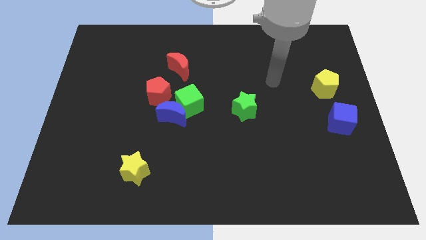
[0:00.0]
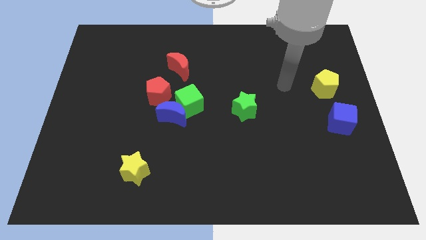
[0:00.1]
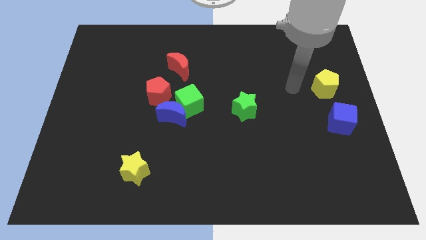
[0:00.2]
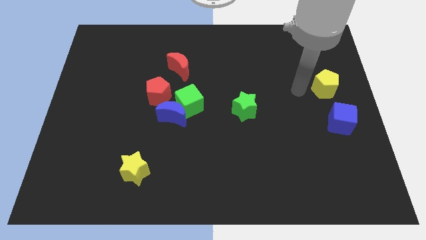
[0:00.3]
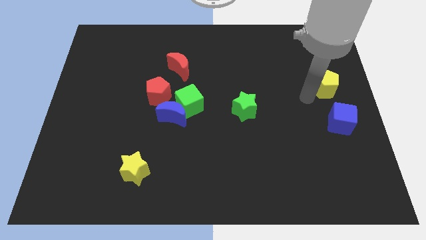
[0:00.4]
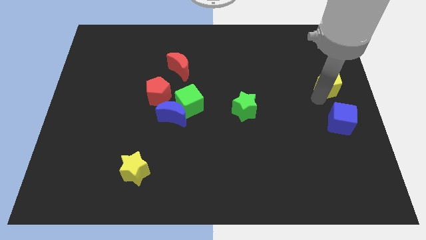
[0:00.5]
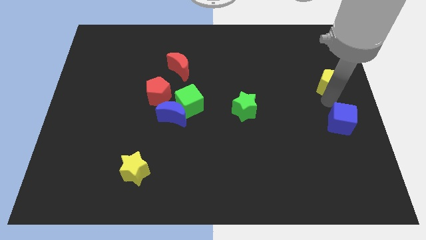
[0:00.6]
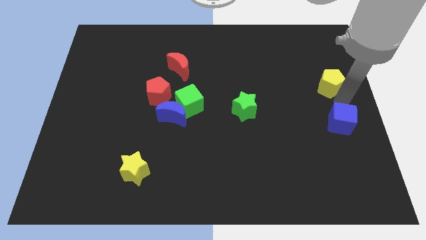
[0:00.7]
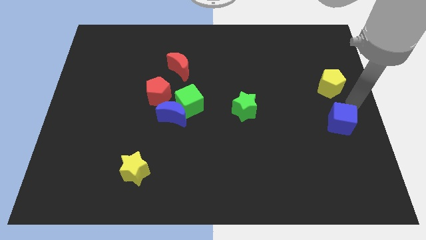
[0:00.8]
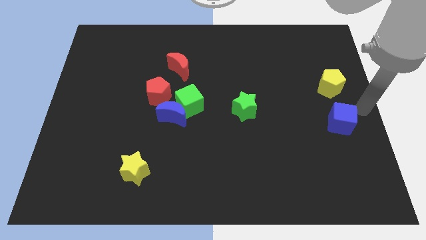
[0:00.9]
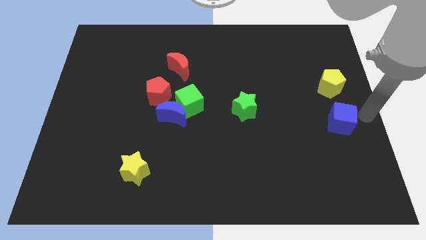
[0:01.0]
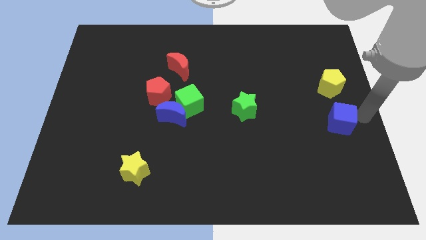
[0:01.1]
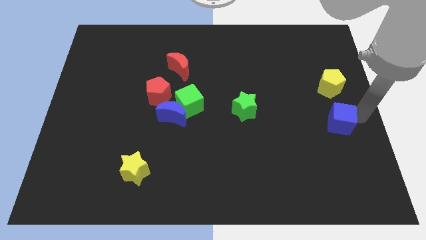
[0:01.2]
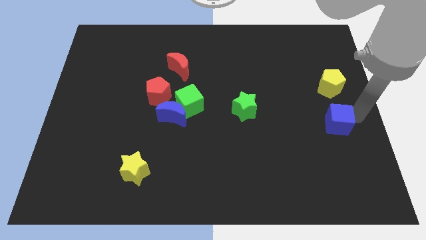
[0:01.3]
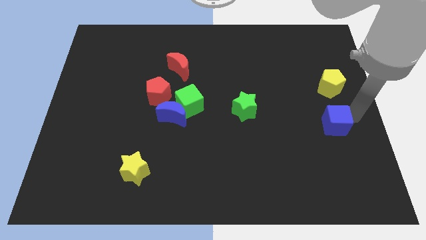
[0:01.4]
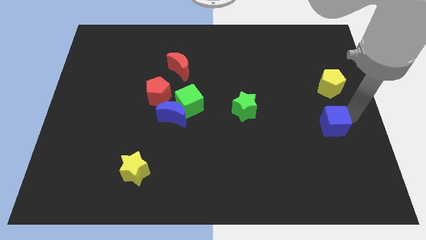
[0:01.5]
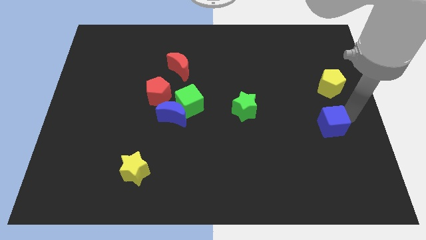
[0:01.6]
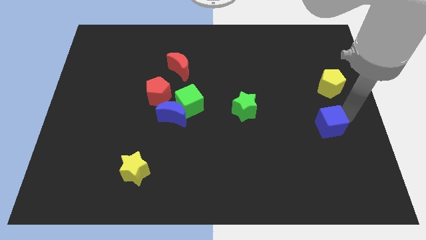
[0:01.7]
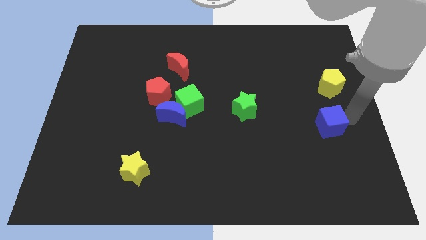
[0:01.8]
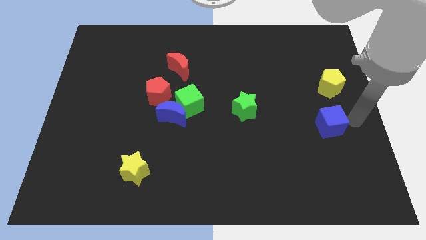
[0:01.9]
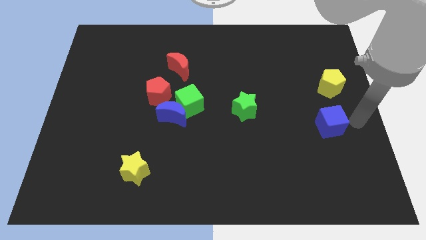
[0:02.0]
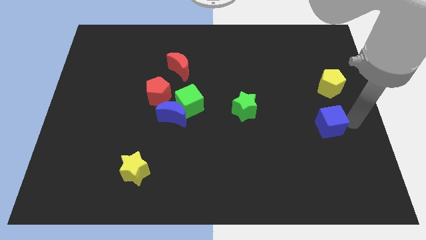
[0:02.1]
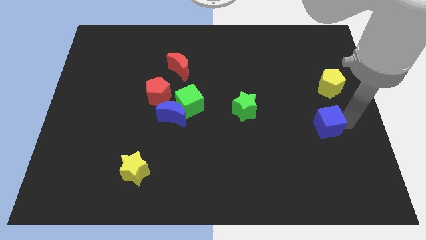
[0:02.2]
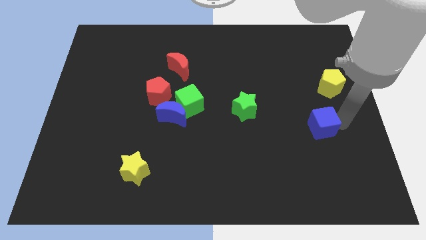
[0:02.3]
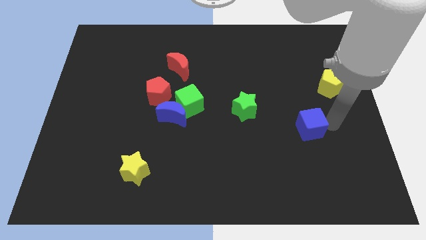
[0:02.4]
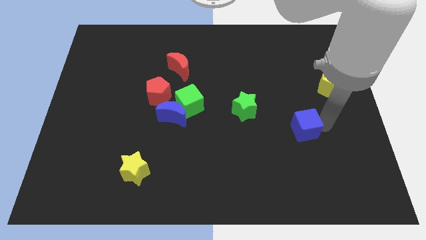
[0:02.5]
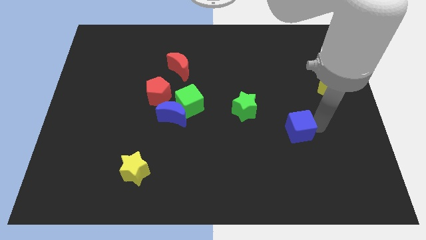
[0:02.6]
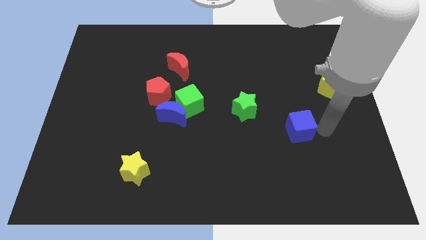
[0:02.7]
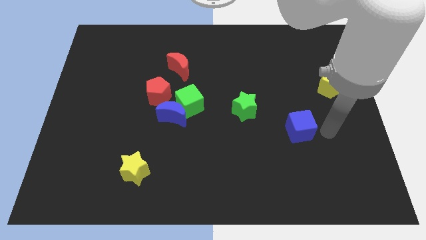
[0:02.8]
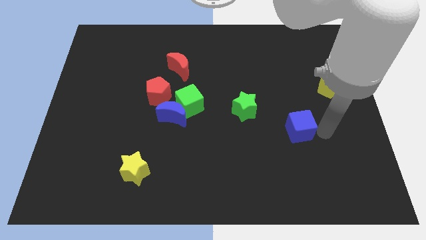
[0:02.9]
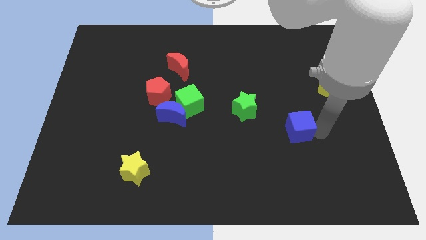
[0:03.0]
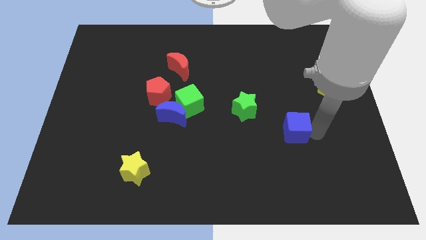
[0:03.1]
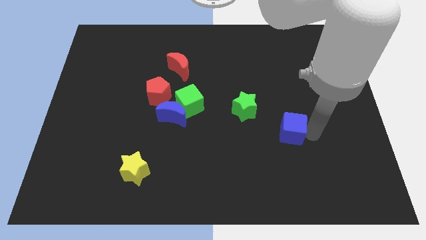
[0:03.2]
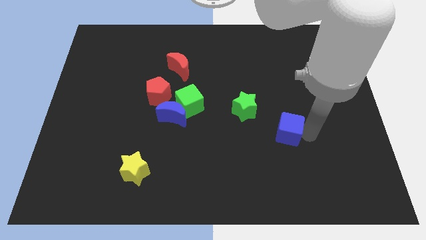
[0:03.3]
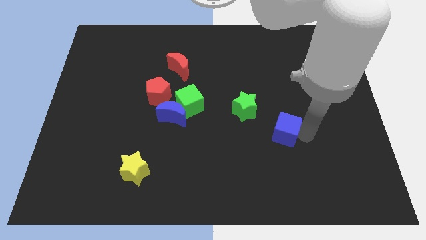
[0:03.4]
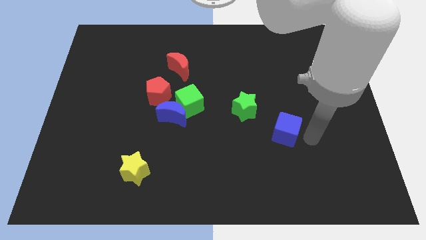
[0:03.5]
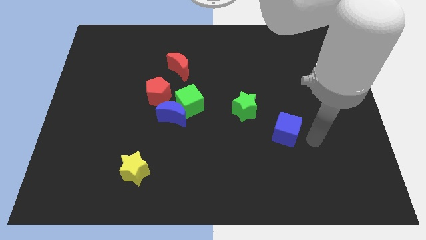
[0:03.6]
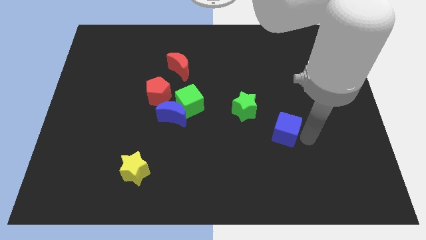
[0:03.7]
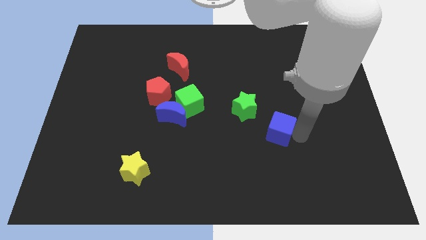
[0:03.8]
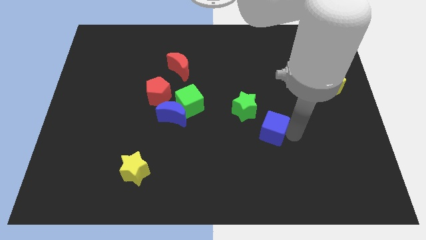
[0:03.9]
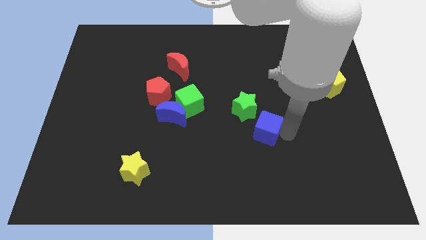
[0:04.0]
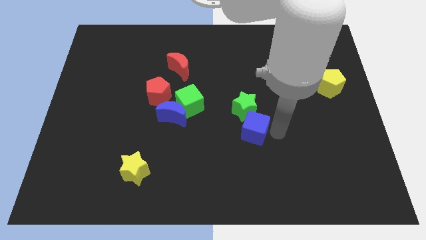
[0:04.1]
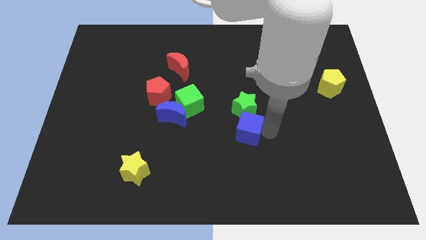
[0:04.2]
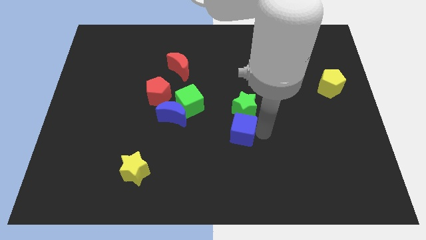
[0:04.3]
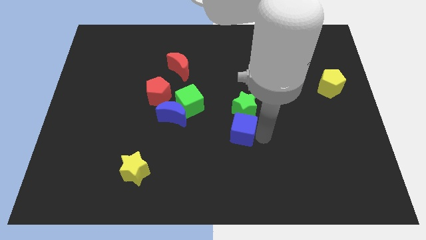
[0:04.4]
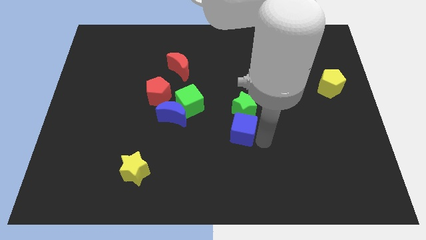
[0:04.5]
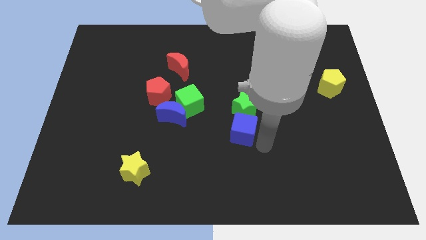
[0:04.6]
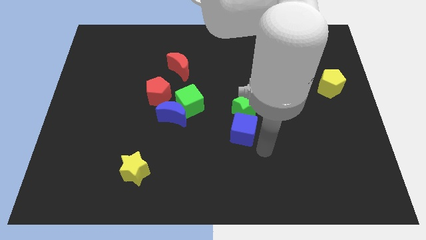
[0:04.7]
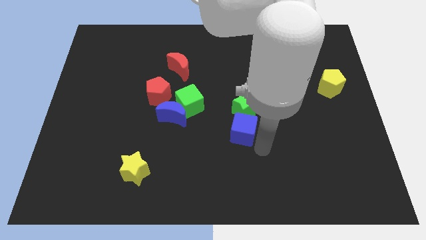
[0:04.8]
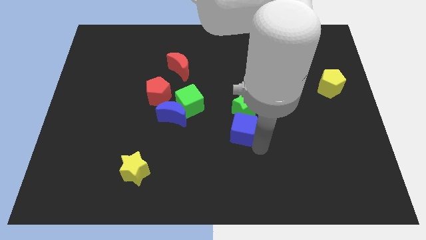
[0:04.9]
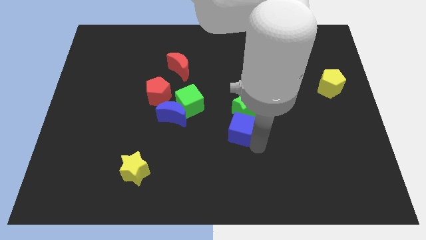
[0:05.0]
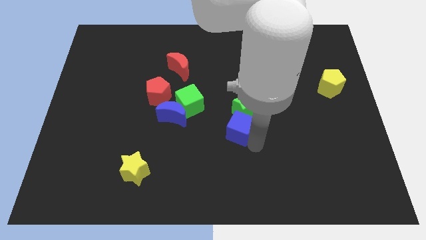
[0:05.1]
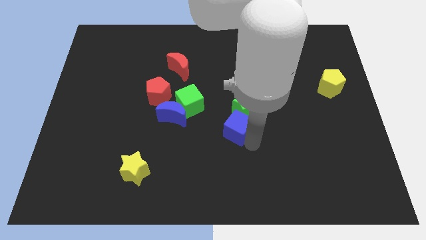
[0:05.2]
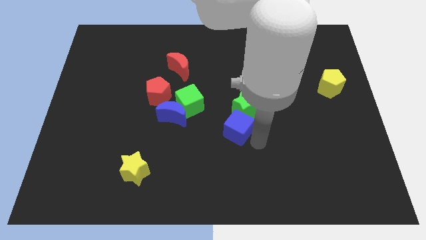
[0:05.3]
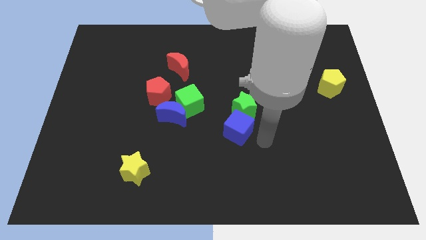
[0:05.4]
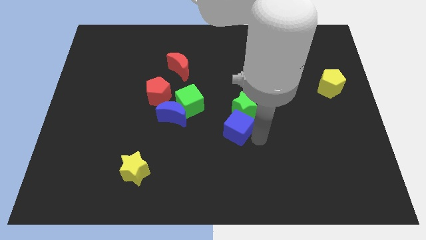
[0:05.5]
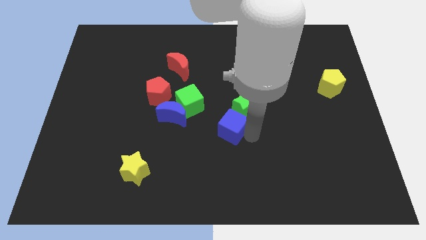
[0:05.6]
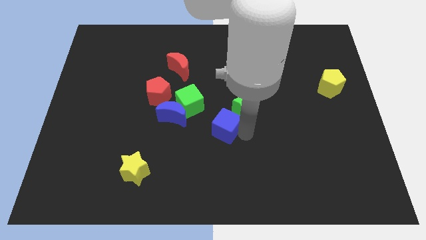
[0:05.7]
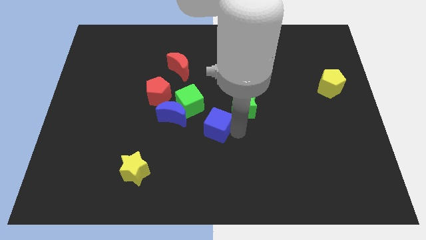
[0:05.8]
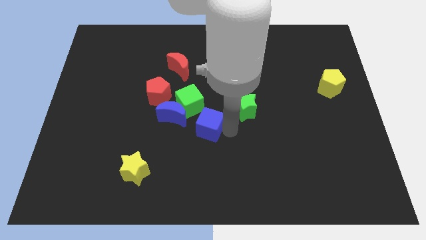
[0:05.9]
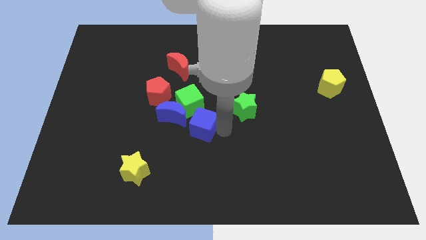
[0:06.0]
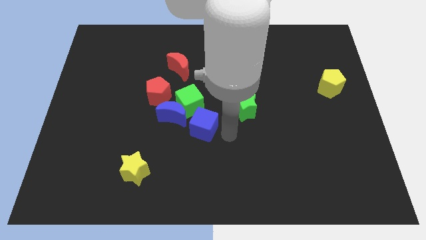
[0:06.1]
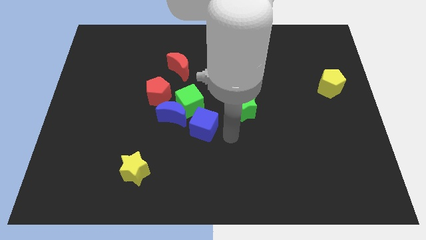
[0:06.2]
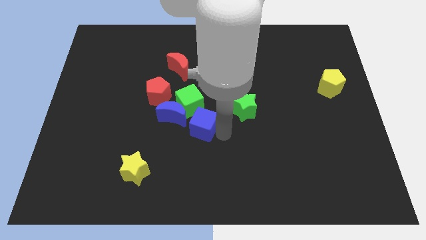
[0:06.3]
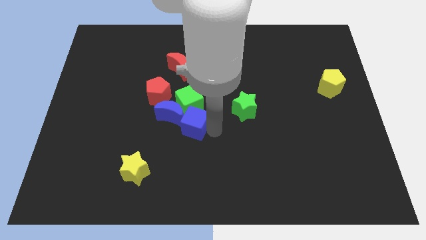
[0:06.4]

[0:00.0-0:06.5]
move the blue cube close to the blue moon

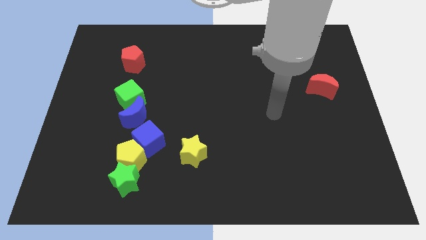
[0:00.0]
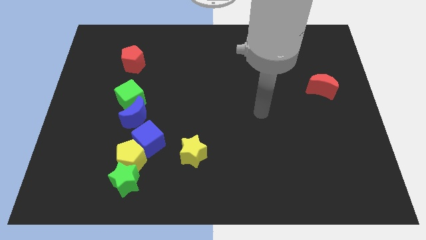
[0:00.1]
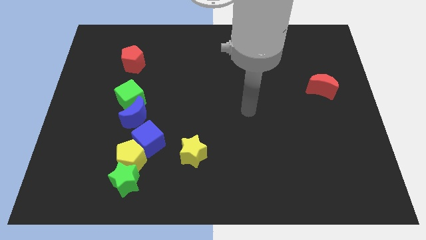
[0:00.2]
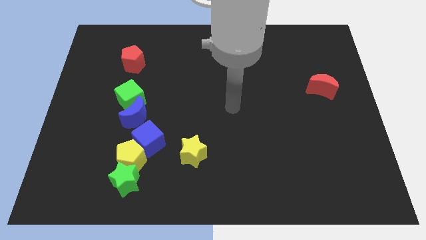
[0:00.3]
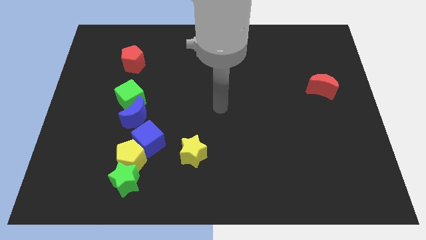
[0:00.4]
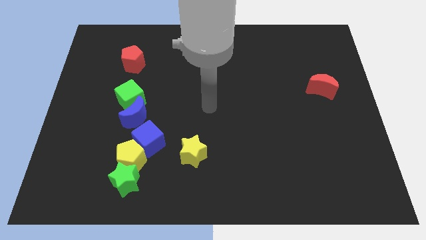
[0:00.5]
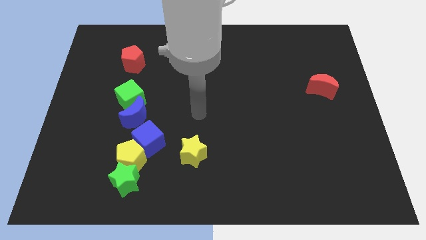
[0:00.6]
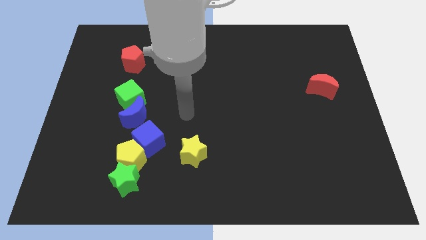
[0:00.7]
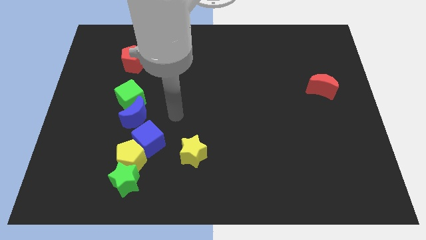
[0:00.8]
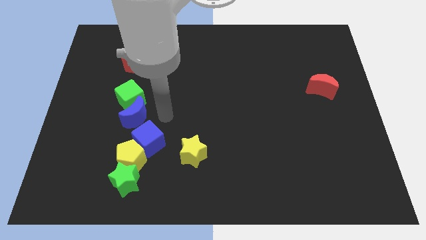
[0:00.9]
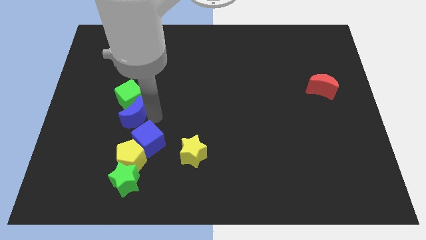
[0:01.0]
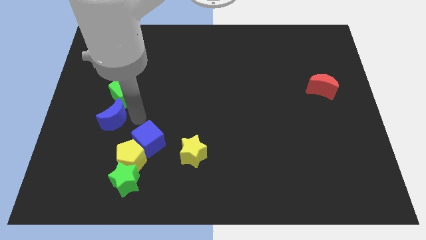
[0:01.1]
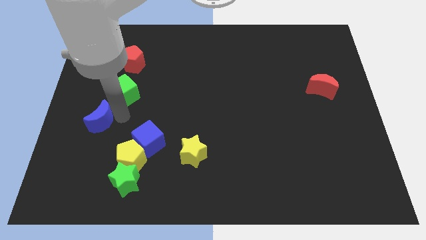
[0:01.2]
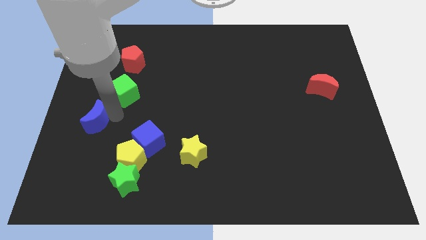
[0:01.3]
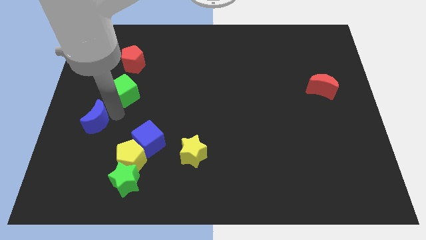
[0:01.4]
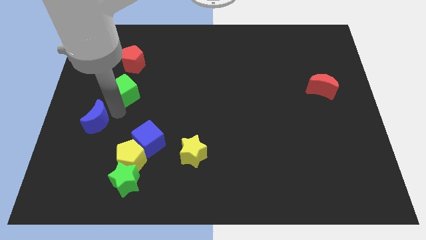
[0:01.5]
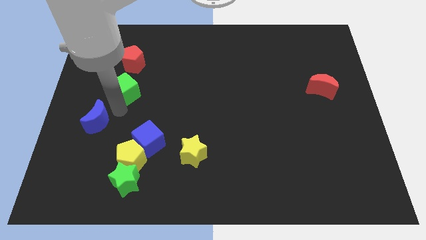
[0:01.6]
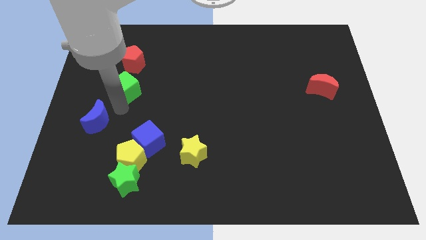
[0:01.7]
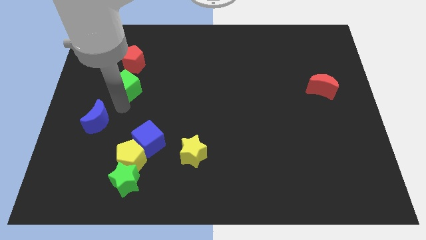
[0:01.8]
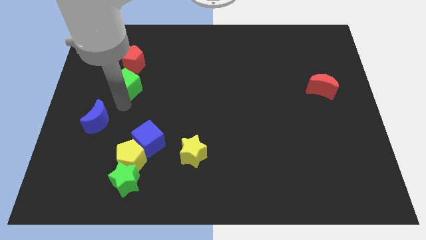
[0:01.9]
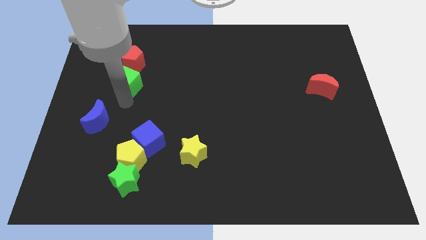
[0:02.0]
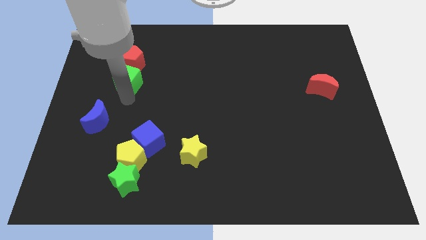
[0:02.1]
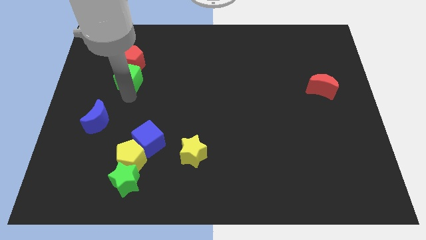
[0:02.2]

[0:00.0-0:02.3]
put the green cube next to the red pentagon
